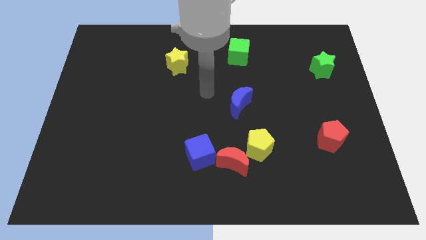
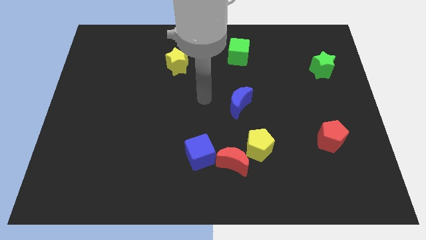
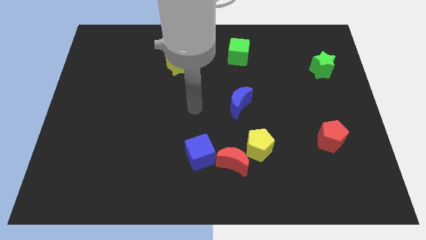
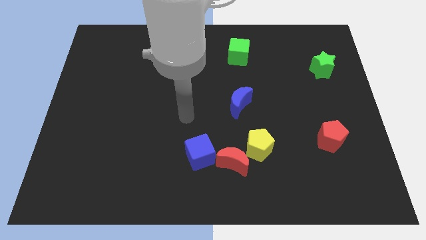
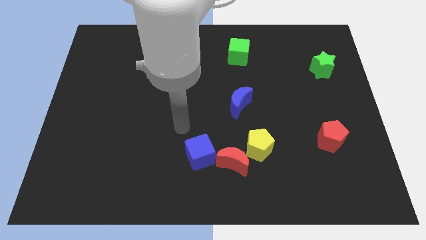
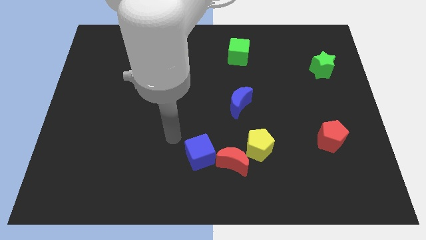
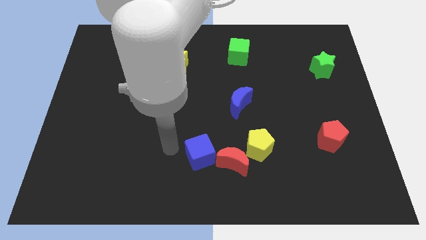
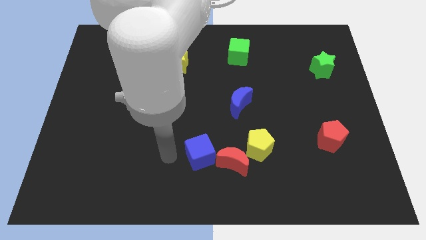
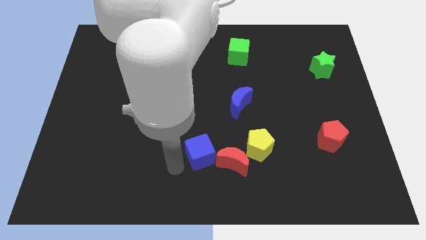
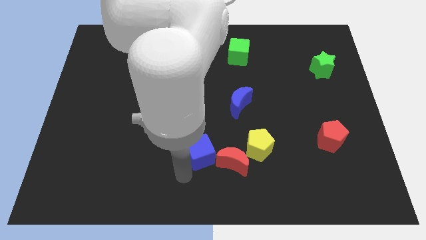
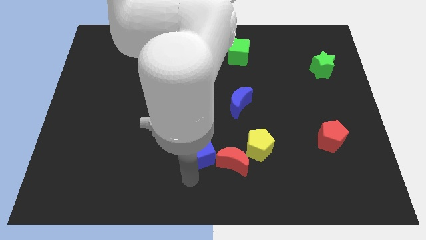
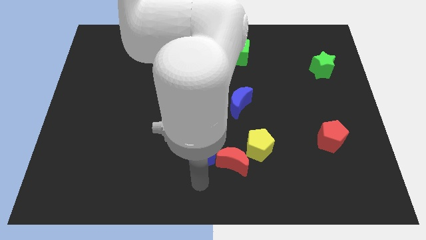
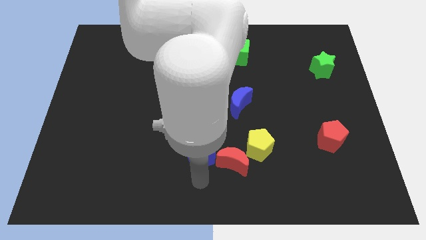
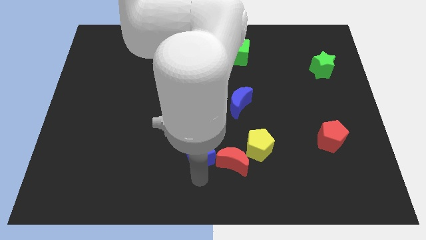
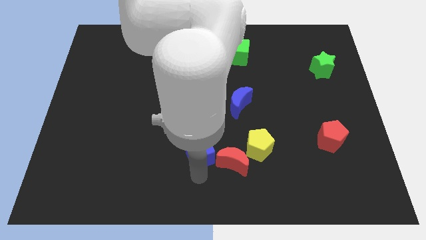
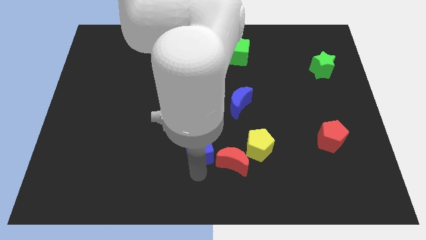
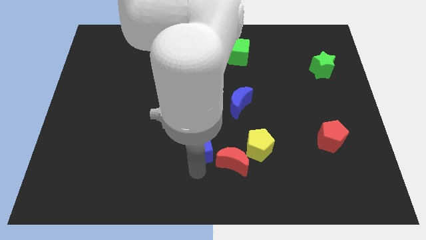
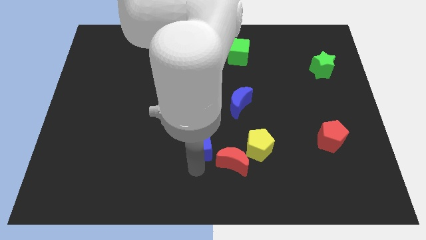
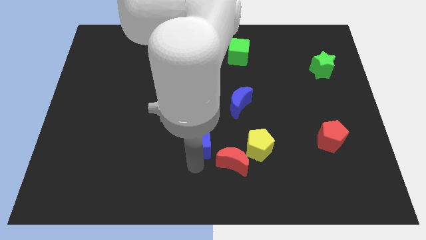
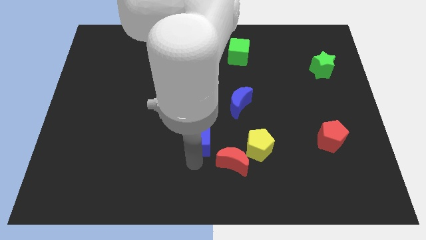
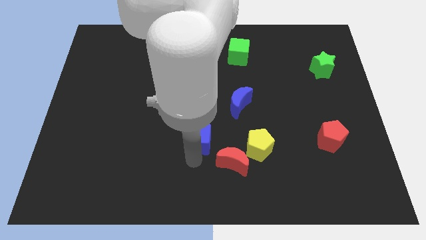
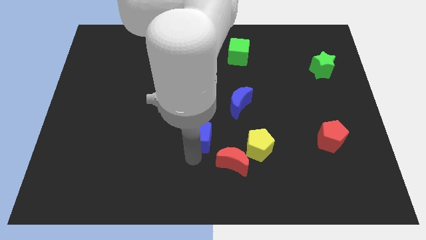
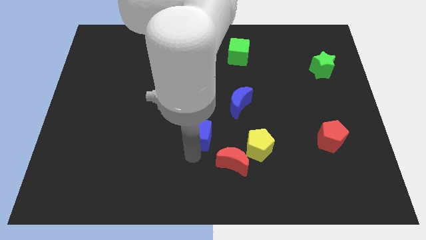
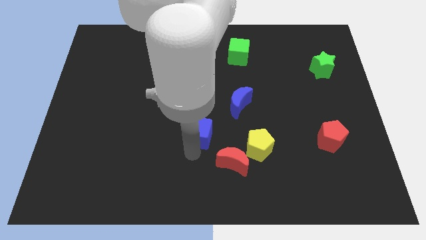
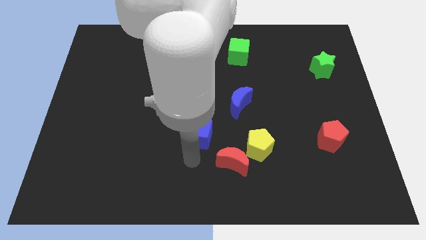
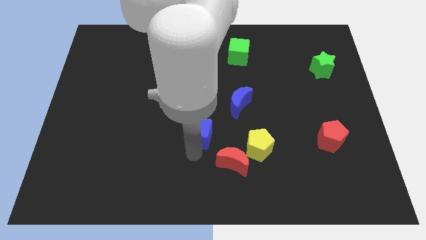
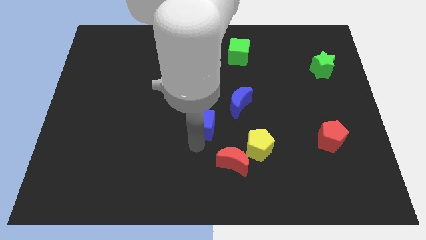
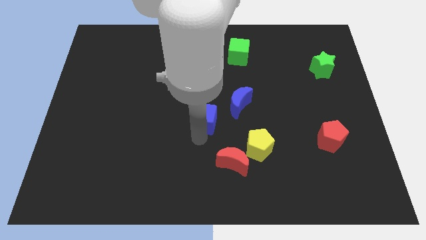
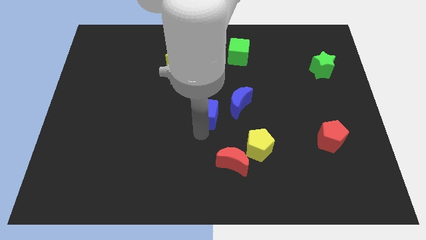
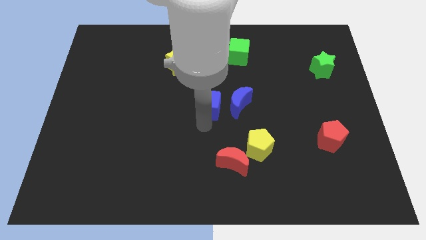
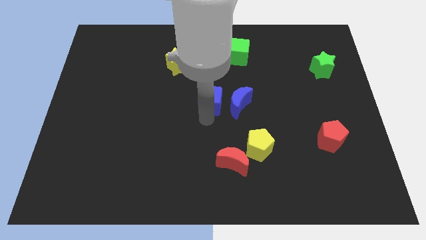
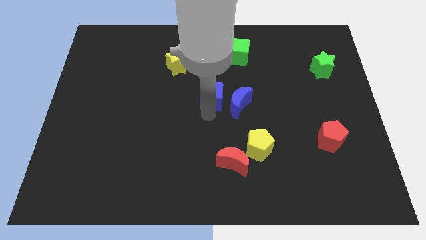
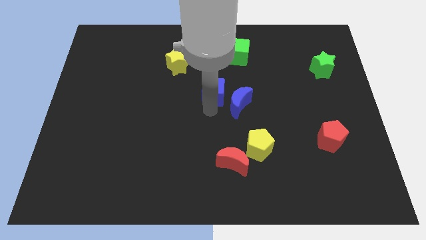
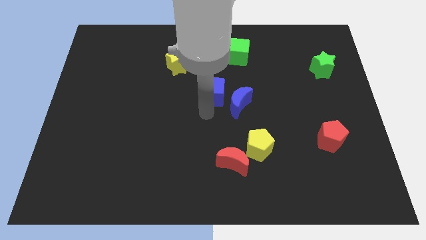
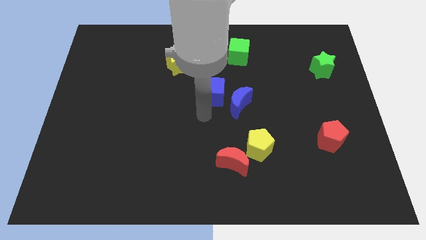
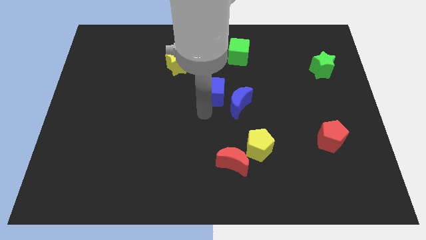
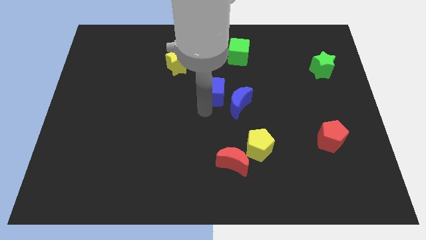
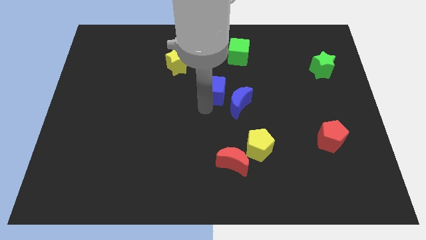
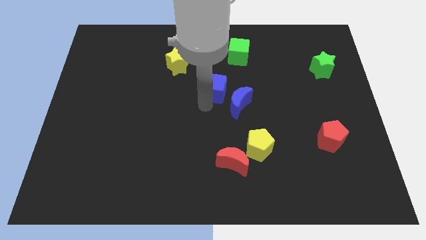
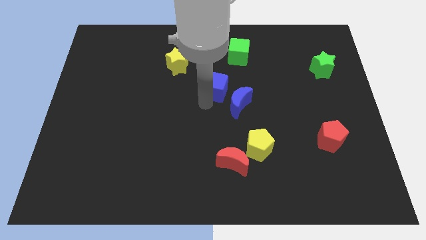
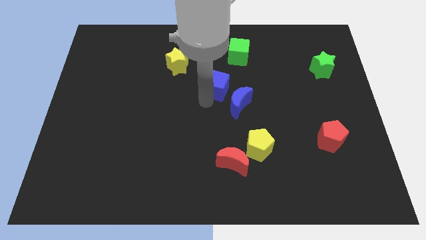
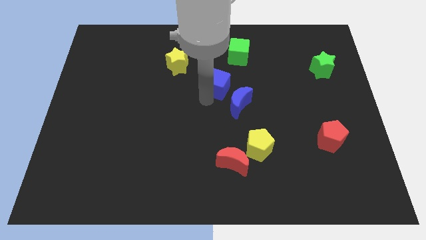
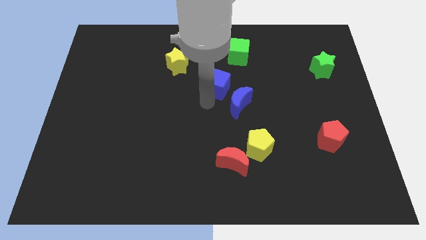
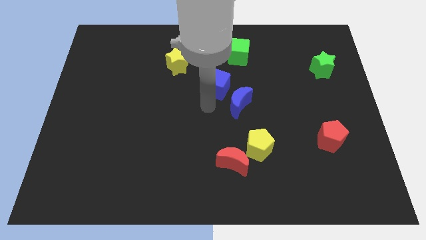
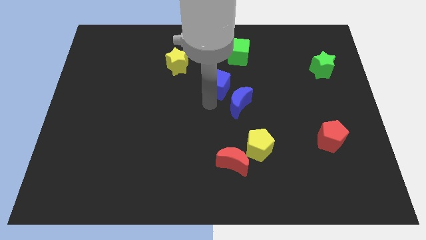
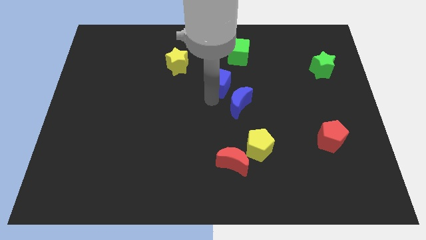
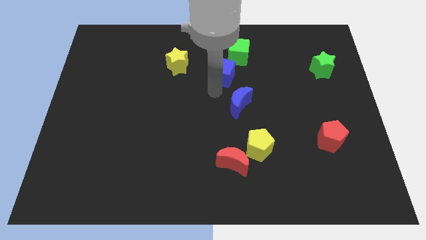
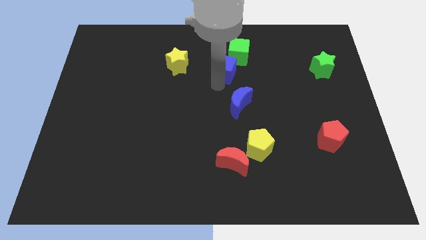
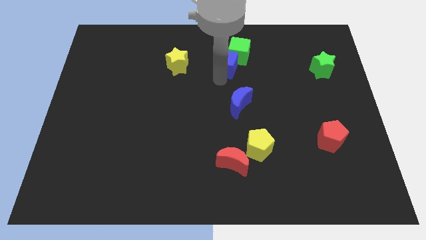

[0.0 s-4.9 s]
put the blue cube close to the green cube

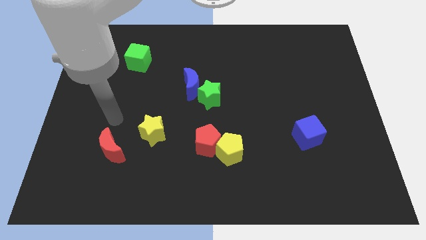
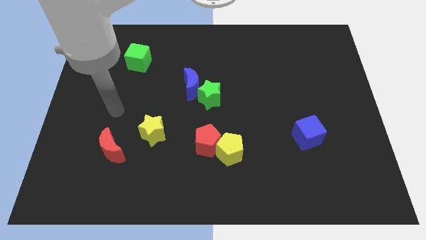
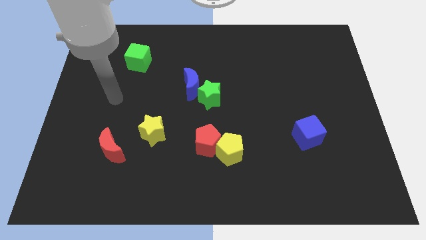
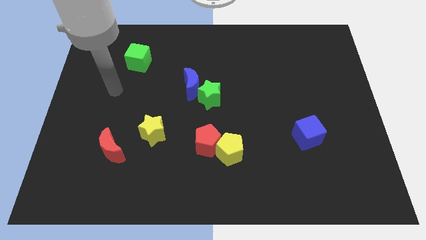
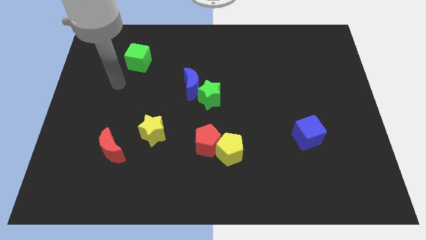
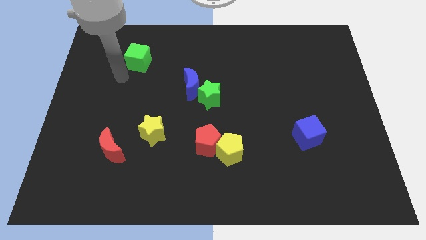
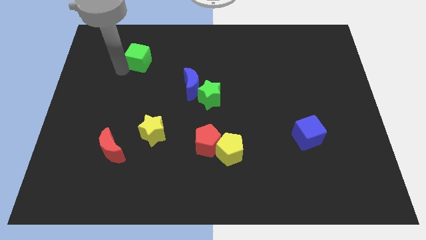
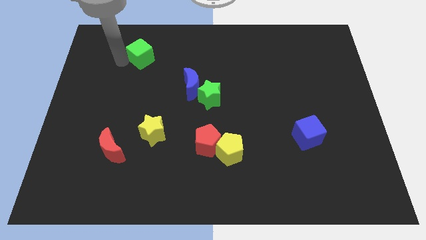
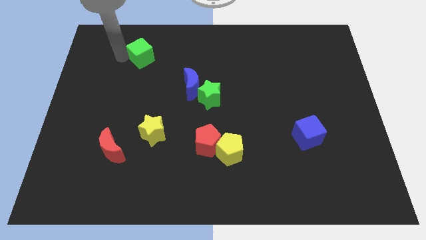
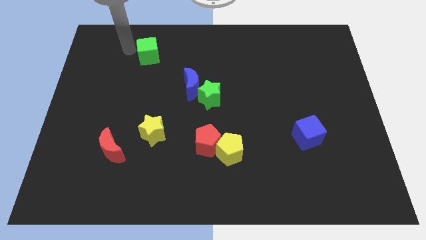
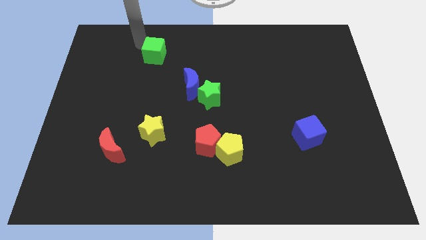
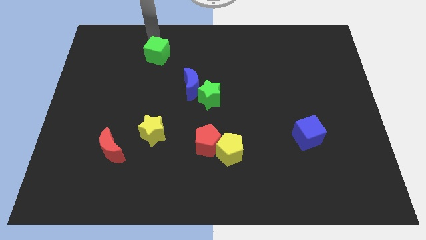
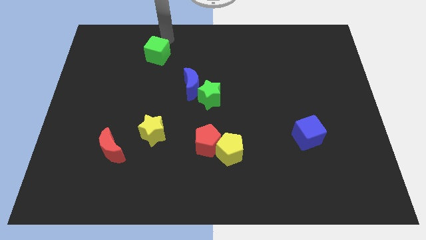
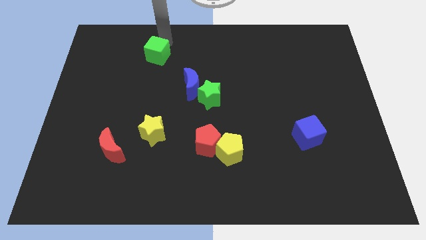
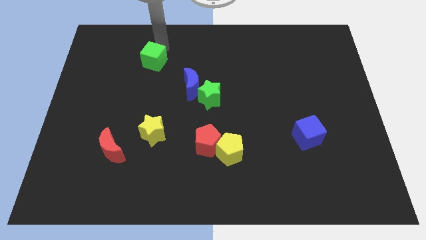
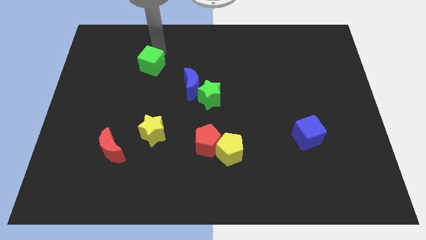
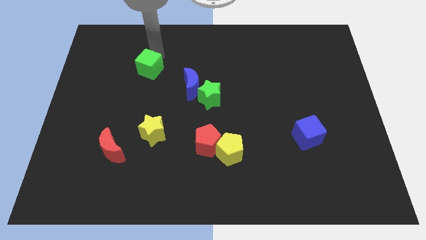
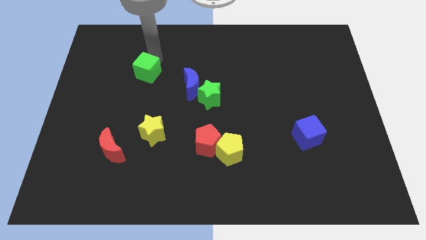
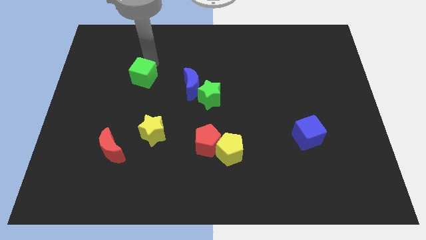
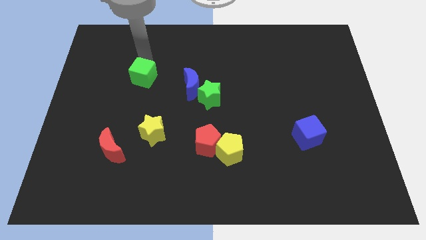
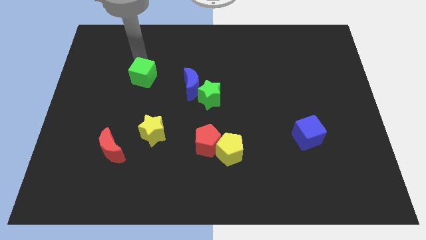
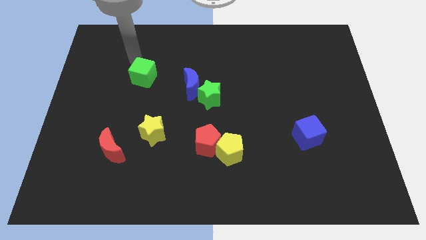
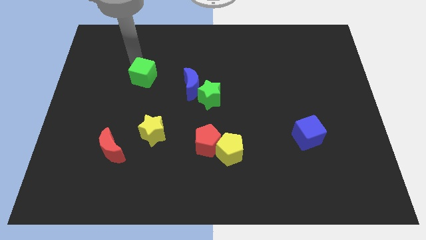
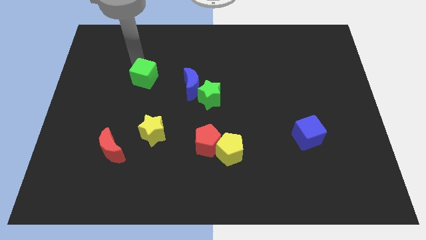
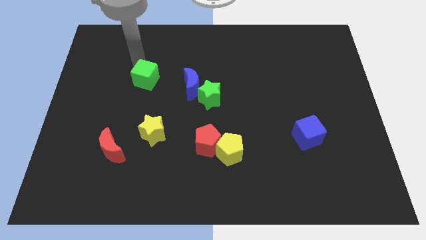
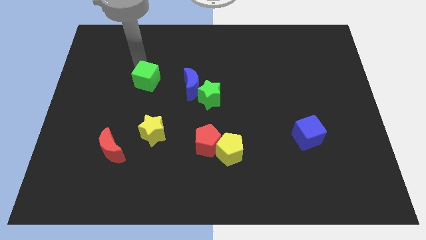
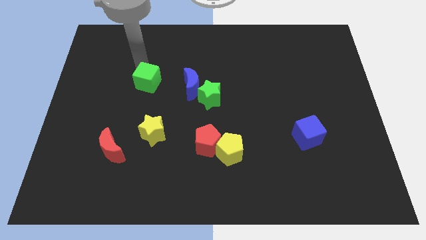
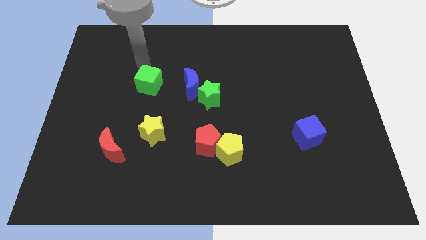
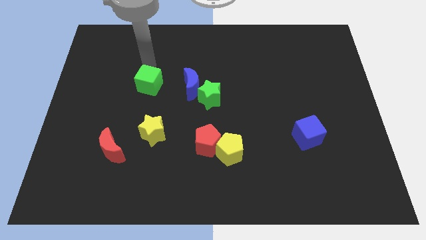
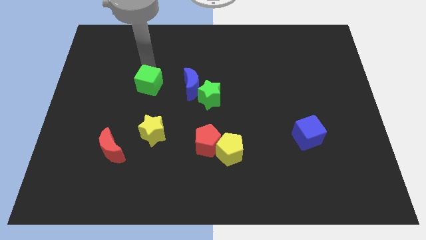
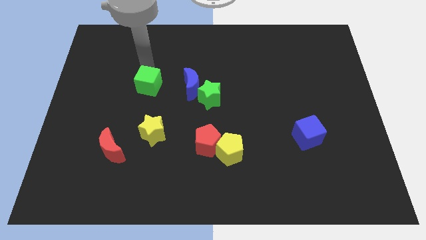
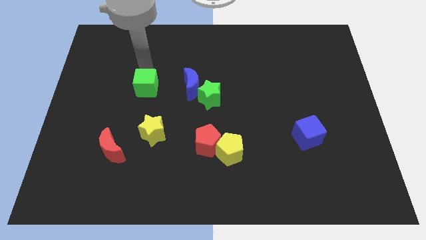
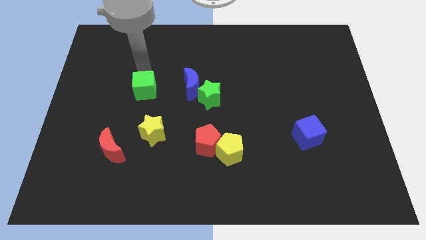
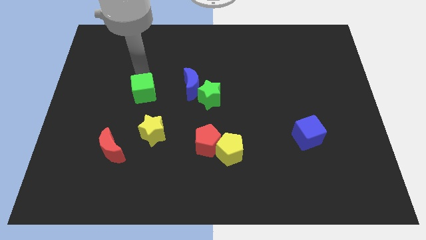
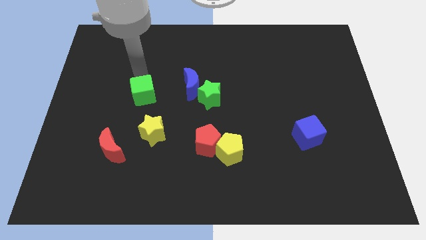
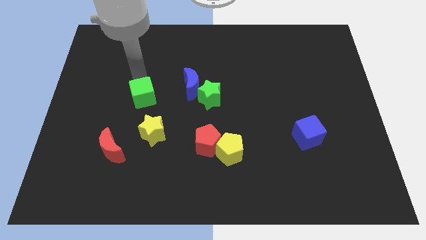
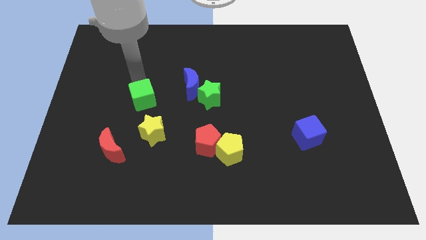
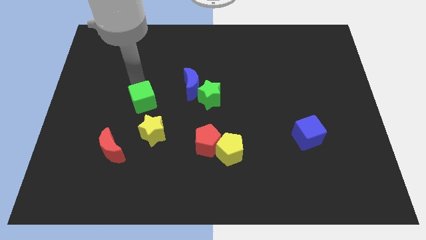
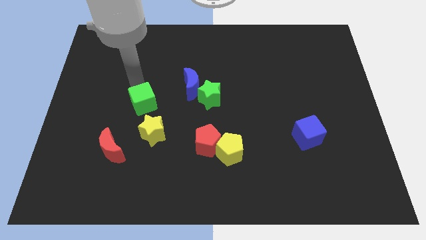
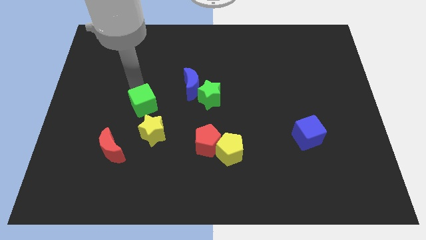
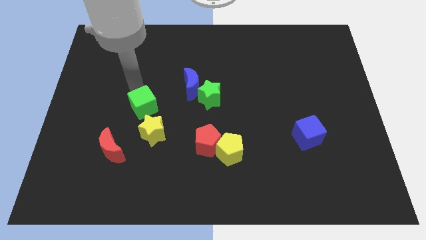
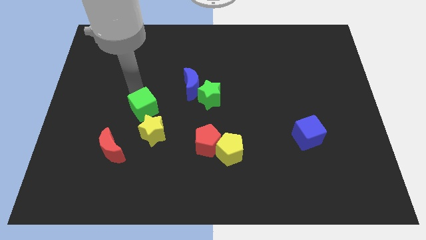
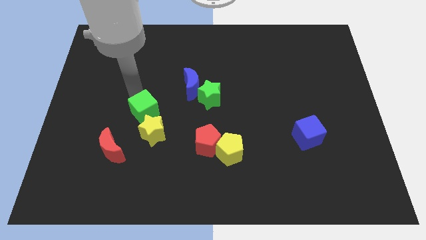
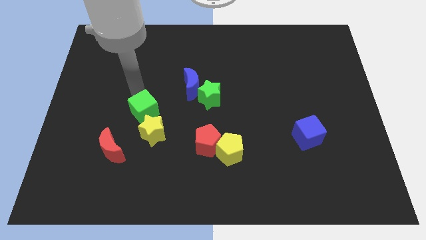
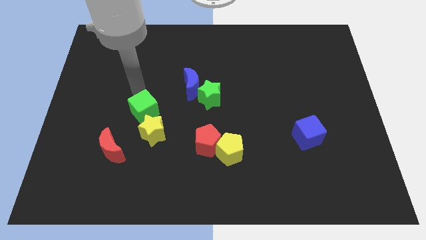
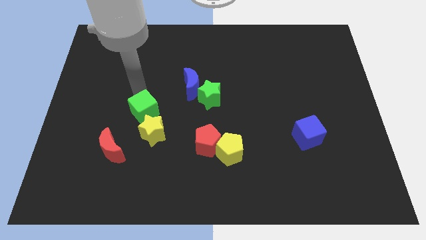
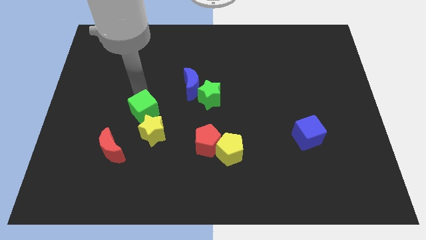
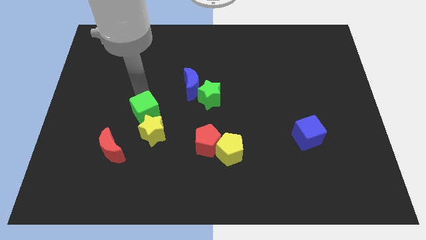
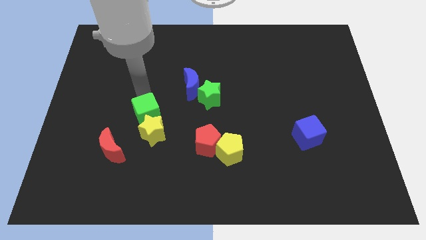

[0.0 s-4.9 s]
push the green cube close to the yellow star
